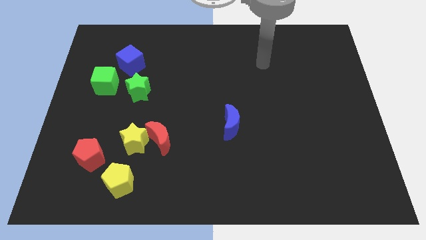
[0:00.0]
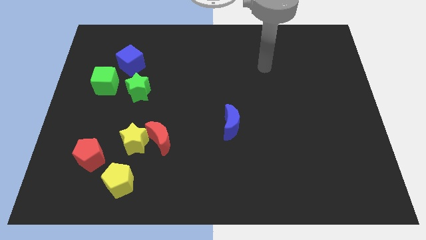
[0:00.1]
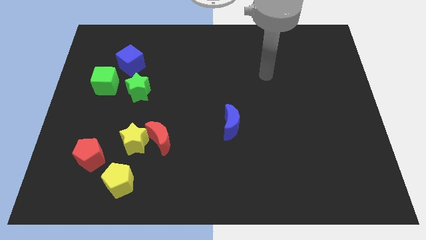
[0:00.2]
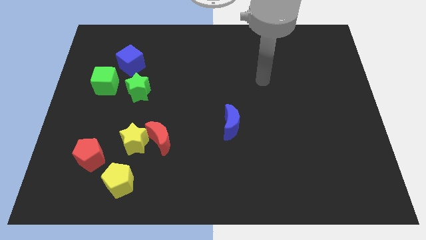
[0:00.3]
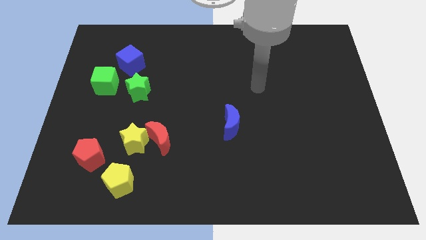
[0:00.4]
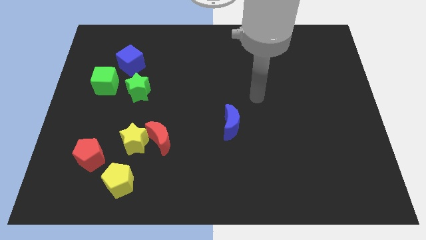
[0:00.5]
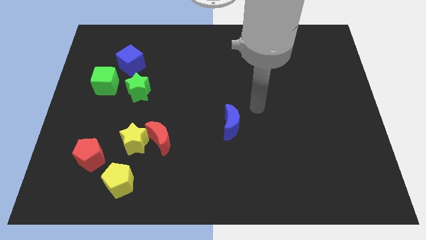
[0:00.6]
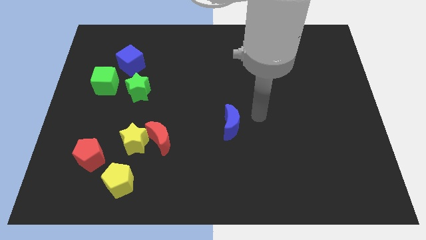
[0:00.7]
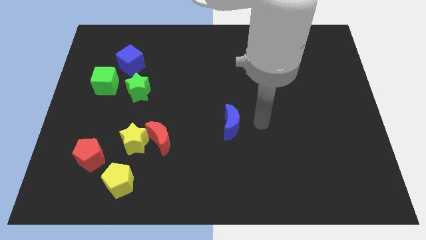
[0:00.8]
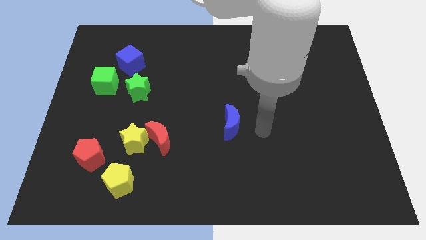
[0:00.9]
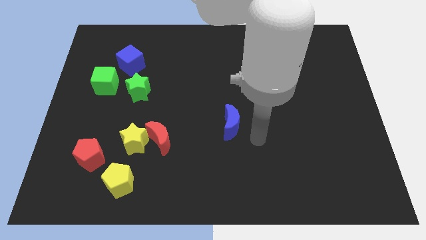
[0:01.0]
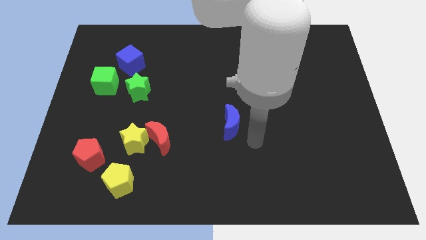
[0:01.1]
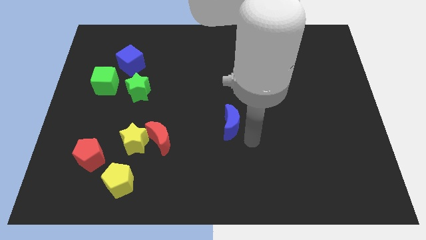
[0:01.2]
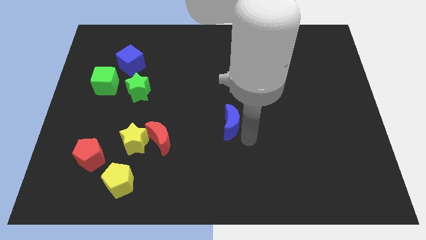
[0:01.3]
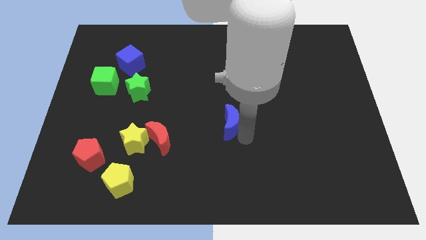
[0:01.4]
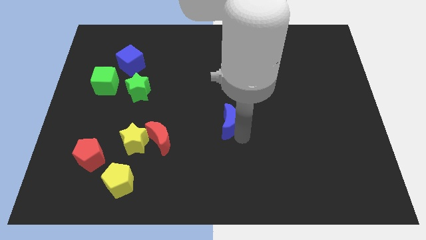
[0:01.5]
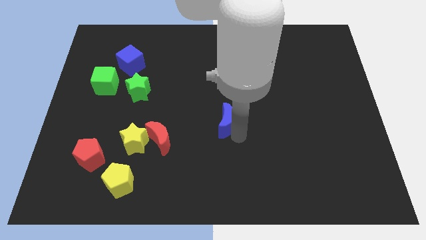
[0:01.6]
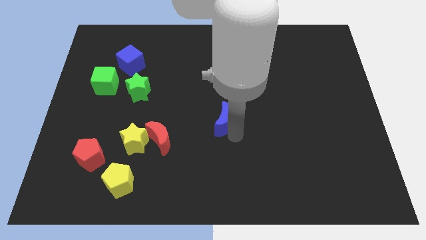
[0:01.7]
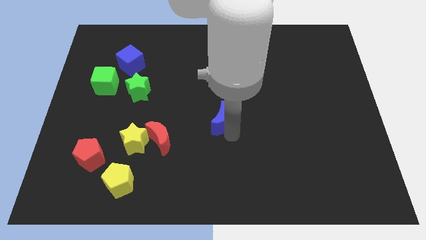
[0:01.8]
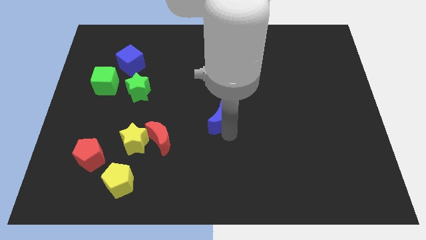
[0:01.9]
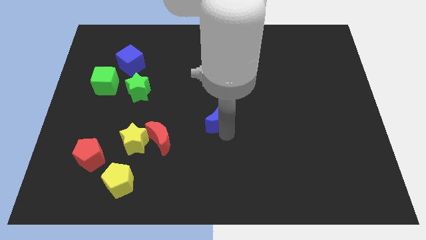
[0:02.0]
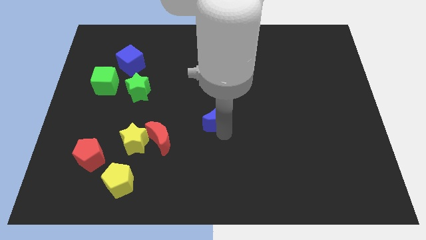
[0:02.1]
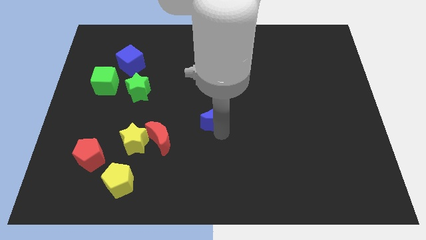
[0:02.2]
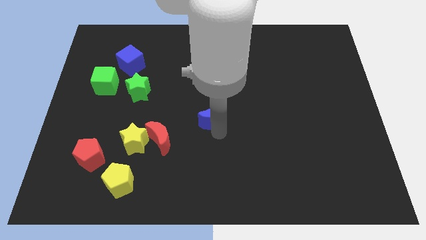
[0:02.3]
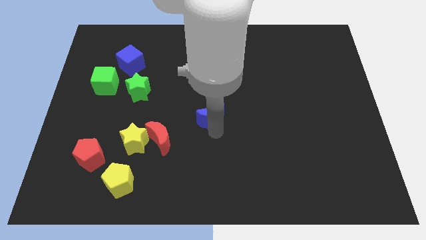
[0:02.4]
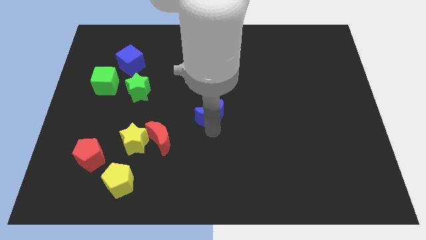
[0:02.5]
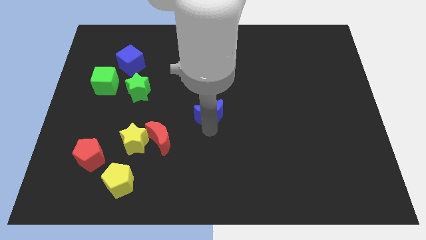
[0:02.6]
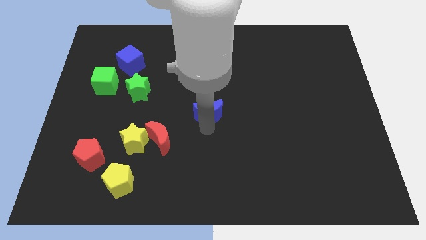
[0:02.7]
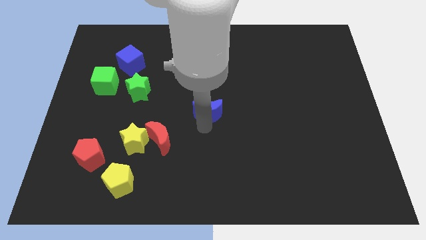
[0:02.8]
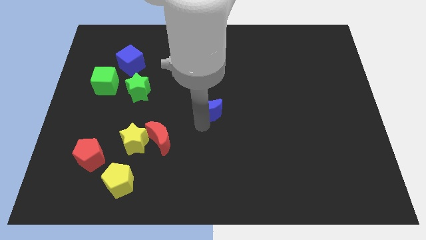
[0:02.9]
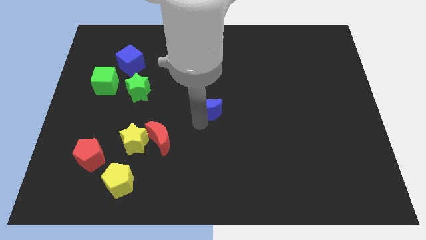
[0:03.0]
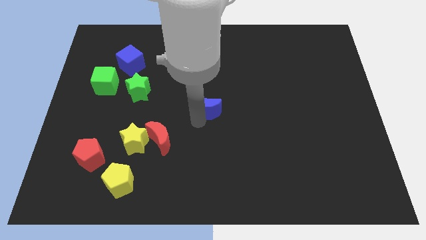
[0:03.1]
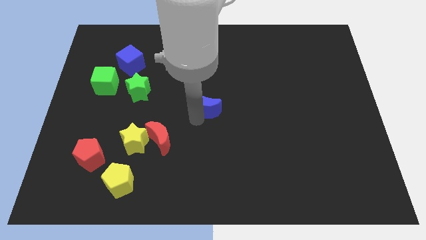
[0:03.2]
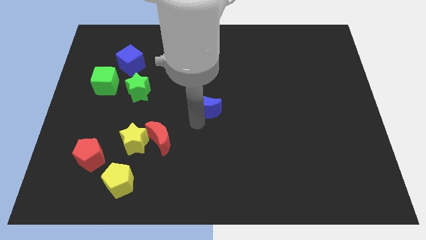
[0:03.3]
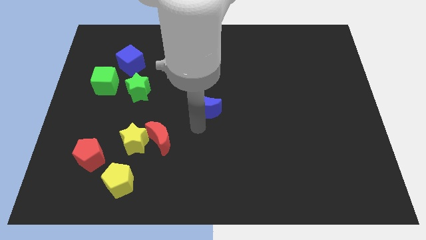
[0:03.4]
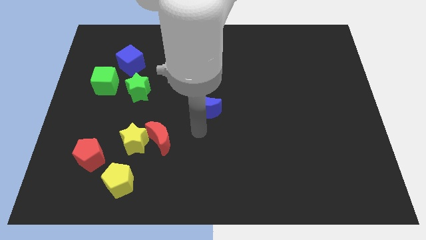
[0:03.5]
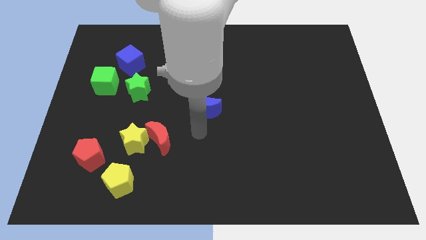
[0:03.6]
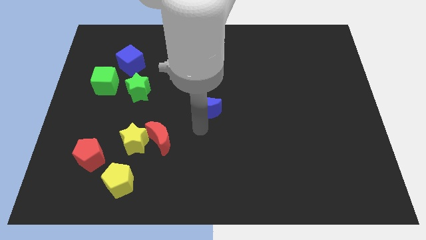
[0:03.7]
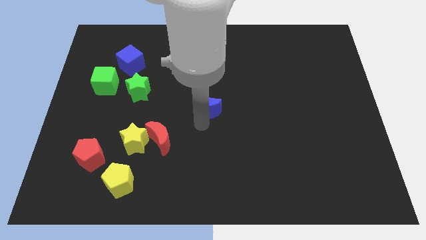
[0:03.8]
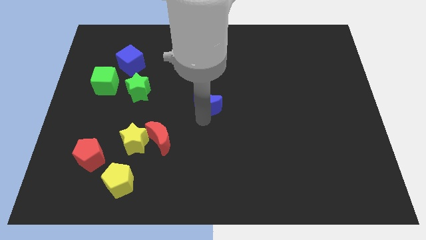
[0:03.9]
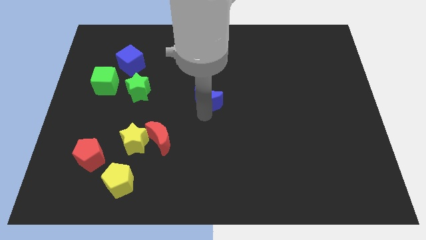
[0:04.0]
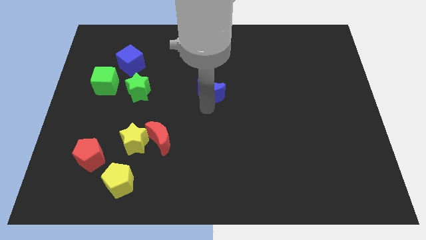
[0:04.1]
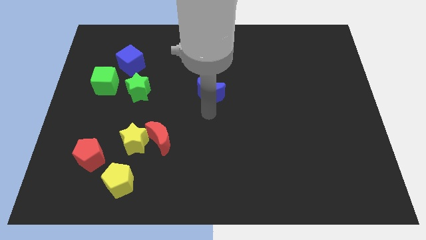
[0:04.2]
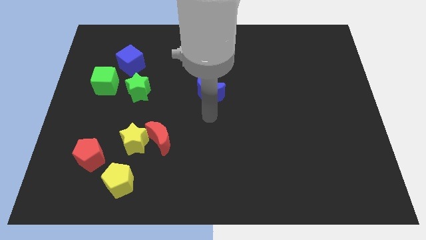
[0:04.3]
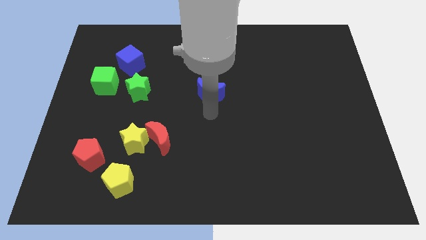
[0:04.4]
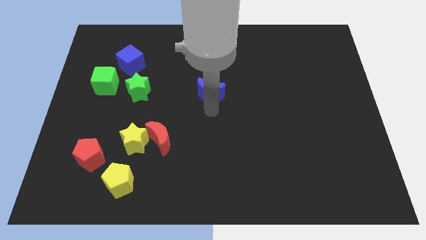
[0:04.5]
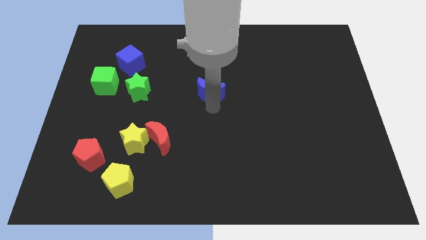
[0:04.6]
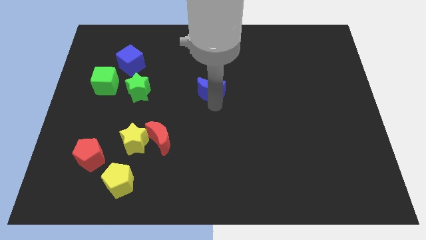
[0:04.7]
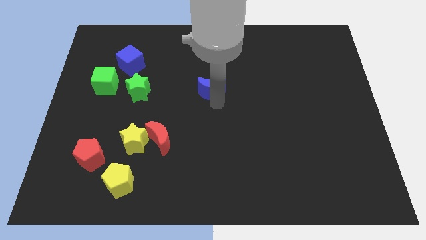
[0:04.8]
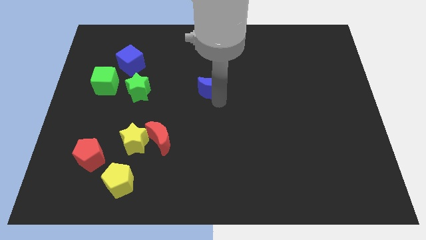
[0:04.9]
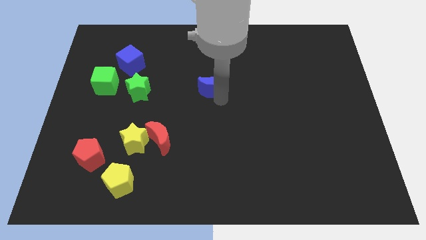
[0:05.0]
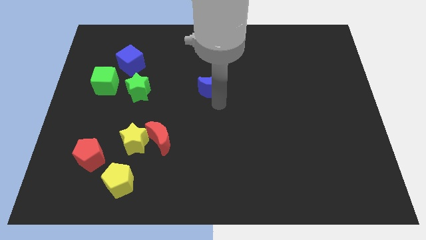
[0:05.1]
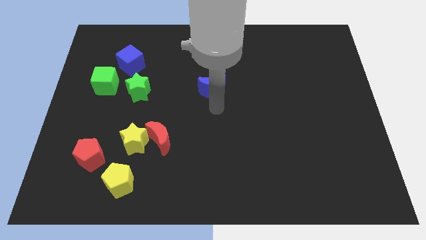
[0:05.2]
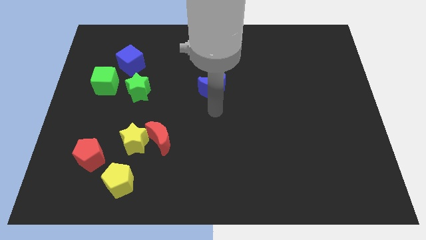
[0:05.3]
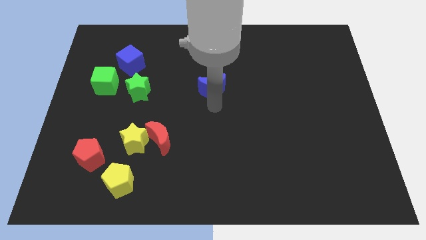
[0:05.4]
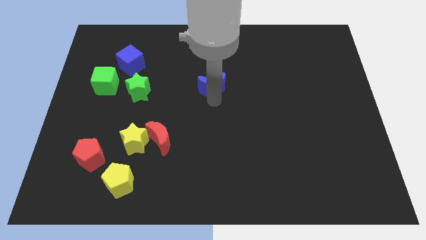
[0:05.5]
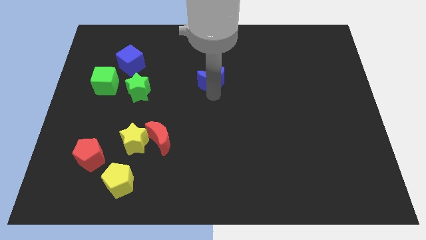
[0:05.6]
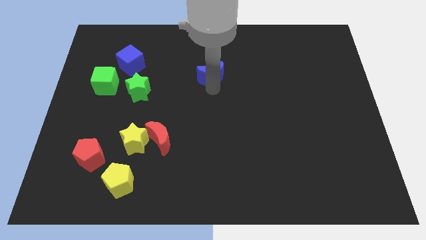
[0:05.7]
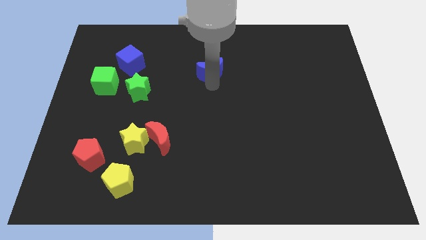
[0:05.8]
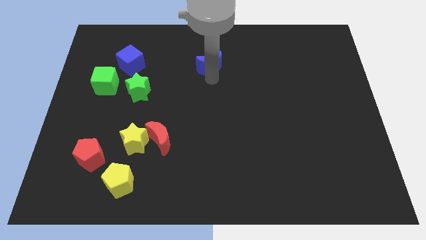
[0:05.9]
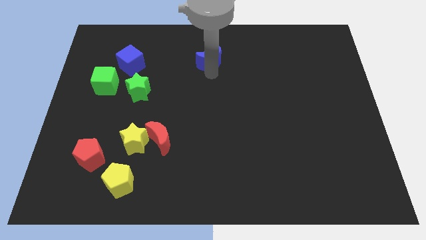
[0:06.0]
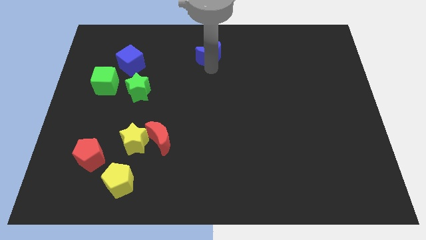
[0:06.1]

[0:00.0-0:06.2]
slide the blue moon to the towards your base

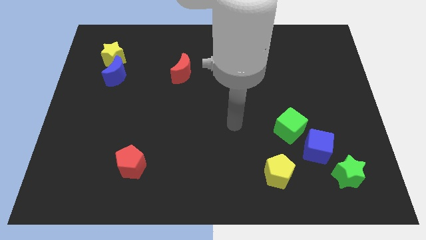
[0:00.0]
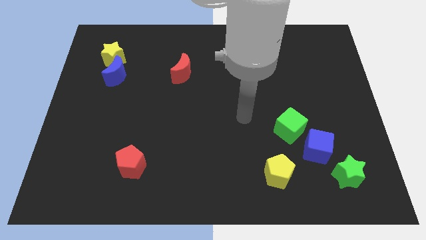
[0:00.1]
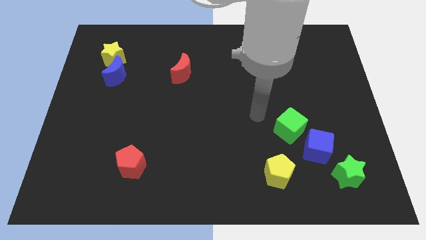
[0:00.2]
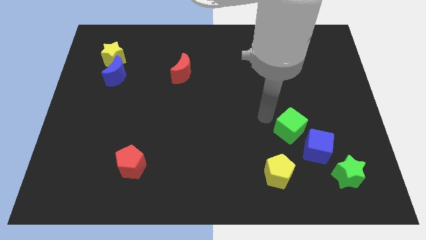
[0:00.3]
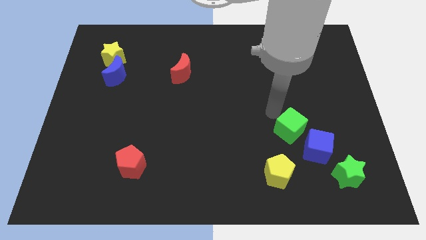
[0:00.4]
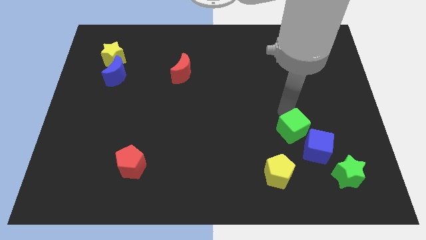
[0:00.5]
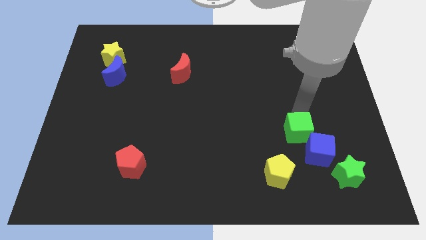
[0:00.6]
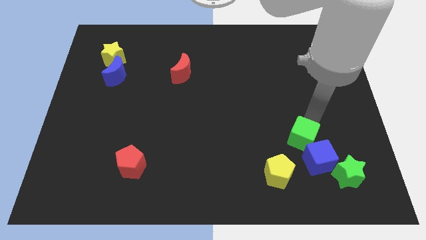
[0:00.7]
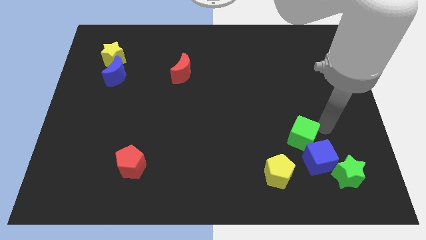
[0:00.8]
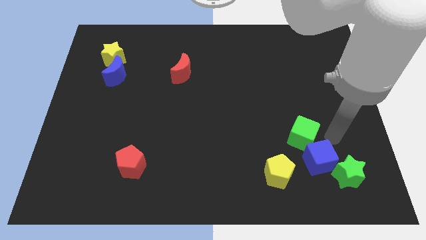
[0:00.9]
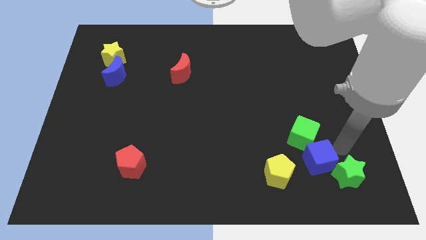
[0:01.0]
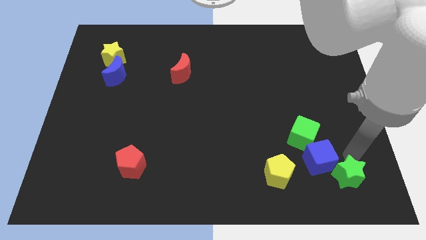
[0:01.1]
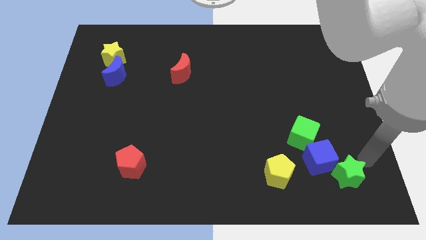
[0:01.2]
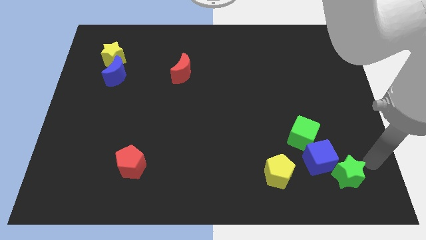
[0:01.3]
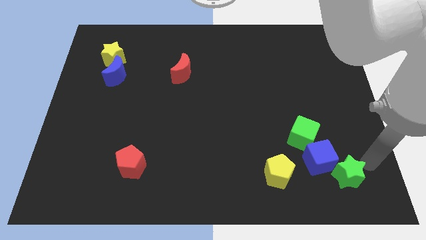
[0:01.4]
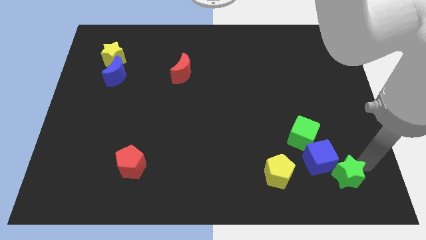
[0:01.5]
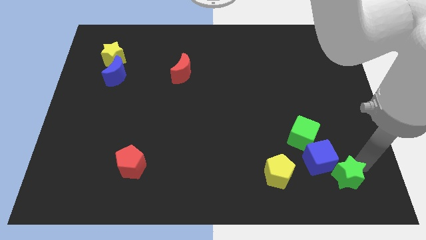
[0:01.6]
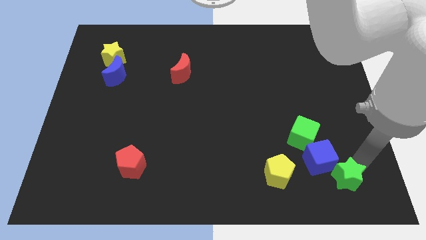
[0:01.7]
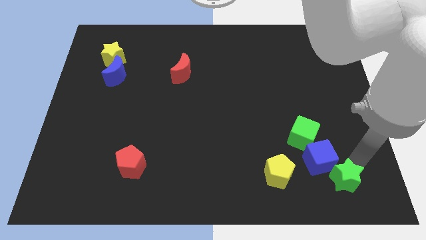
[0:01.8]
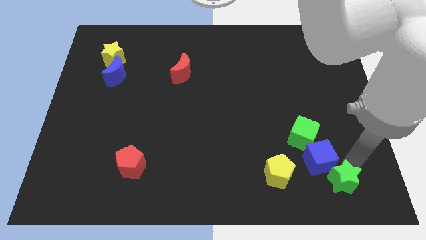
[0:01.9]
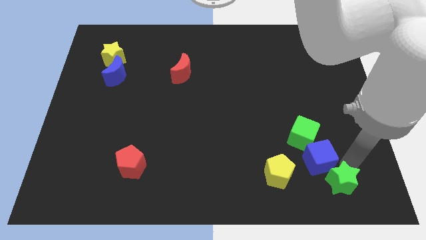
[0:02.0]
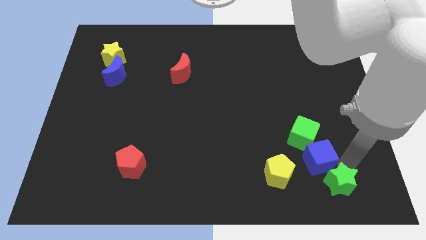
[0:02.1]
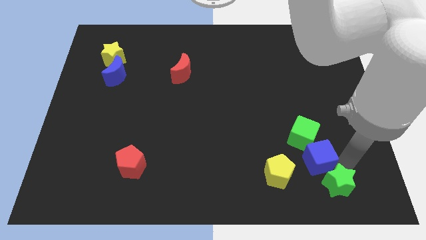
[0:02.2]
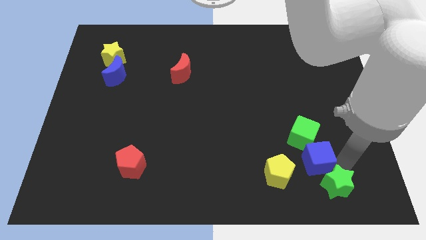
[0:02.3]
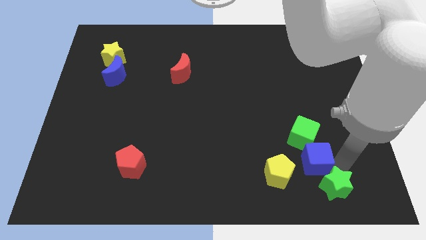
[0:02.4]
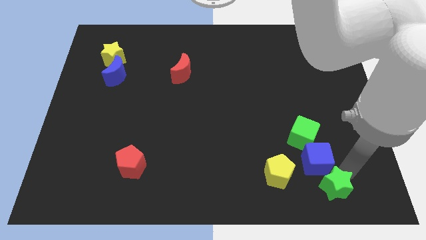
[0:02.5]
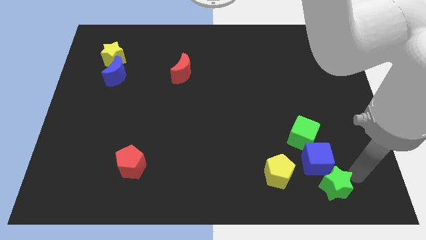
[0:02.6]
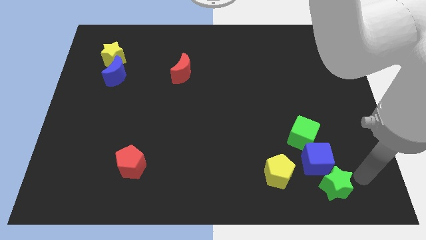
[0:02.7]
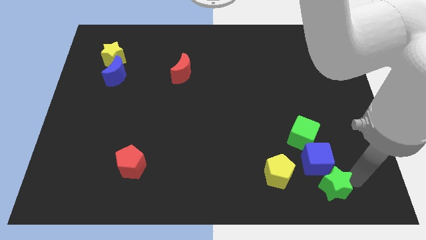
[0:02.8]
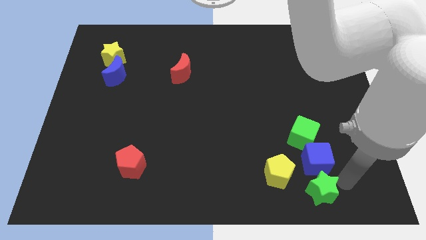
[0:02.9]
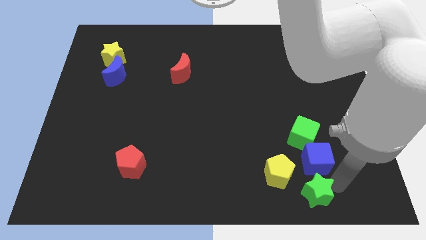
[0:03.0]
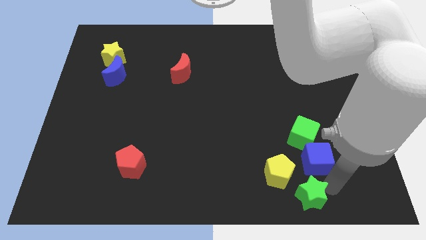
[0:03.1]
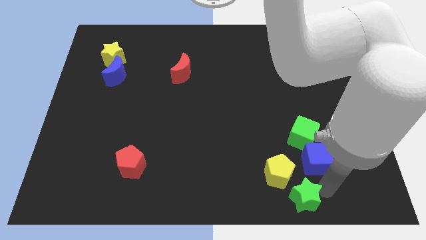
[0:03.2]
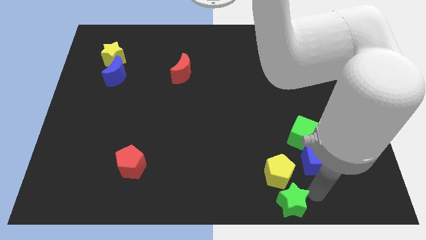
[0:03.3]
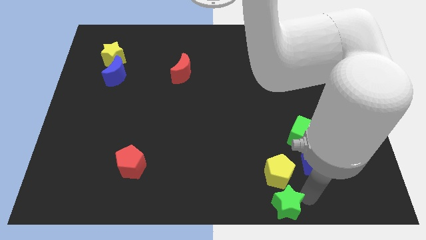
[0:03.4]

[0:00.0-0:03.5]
move the green star to the bottom
